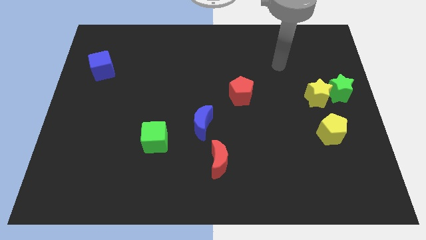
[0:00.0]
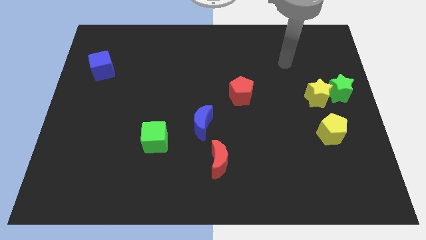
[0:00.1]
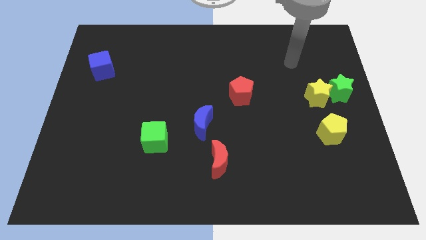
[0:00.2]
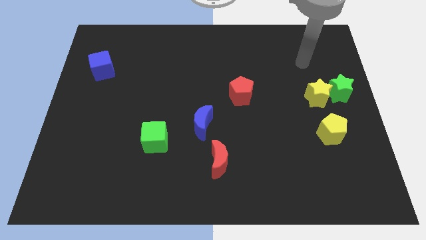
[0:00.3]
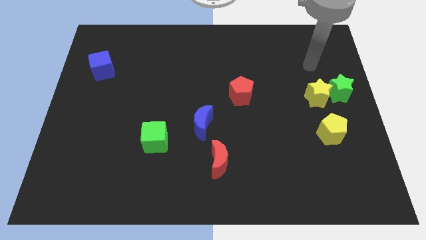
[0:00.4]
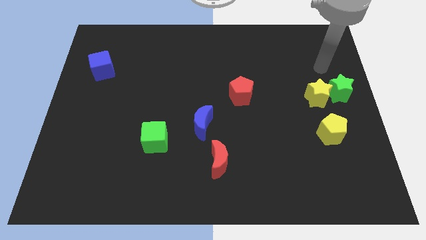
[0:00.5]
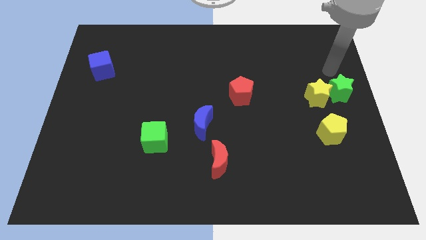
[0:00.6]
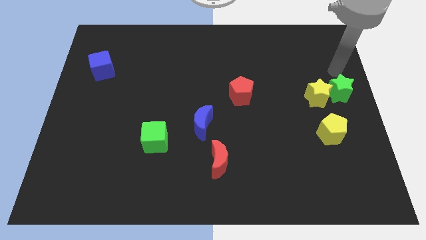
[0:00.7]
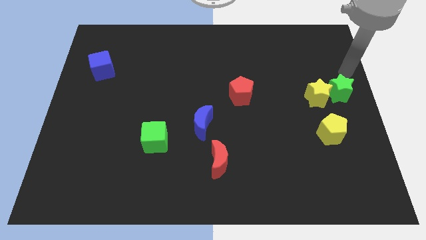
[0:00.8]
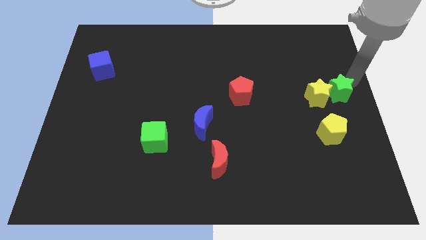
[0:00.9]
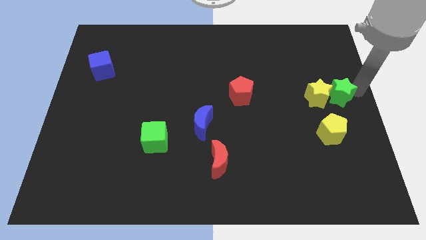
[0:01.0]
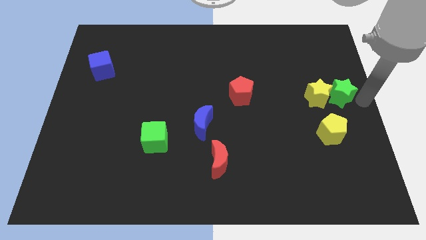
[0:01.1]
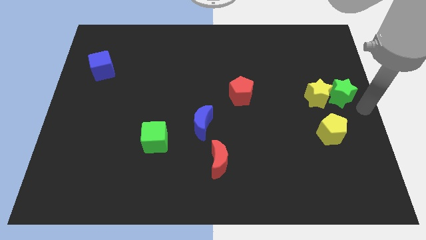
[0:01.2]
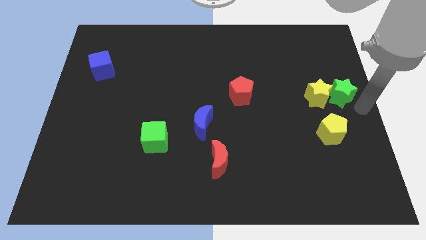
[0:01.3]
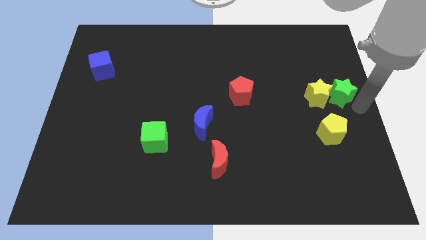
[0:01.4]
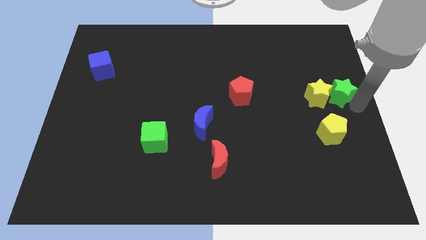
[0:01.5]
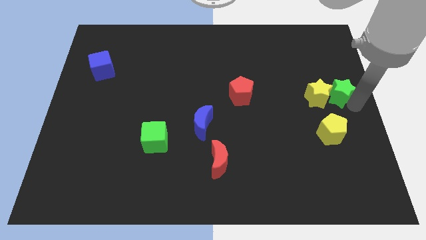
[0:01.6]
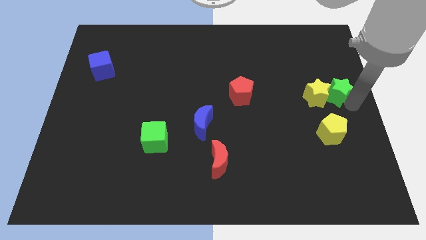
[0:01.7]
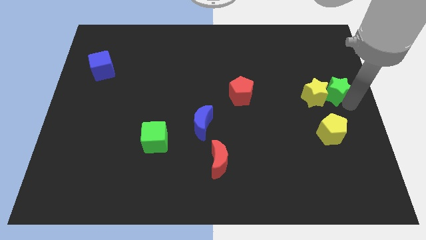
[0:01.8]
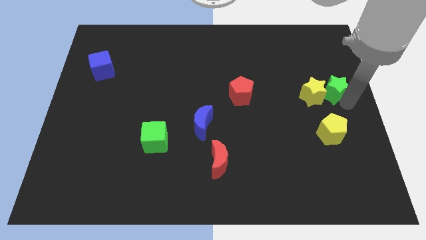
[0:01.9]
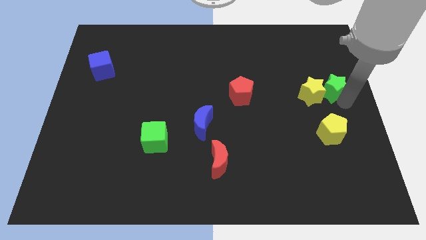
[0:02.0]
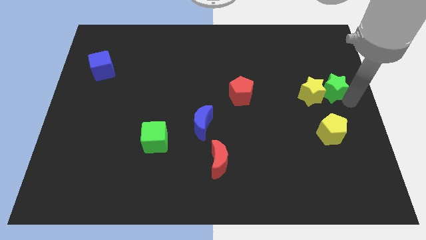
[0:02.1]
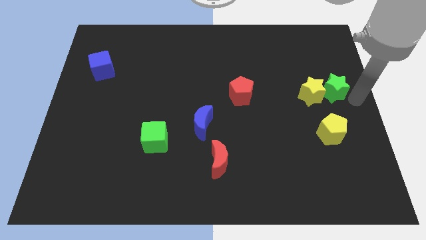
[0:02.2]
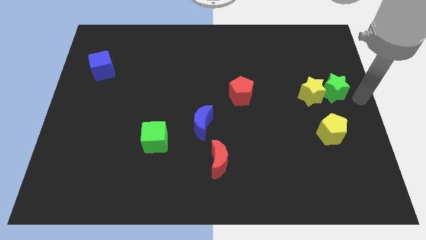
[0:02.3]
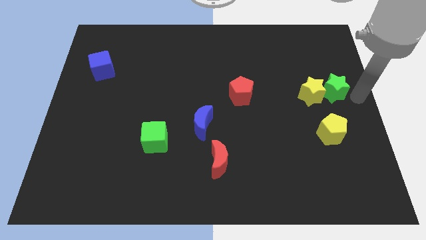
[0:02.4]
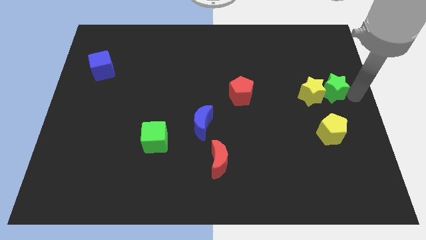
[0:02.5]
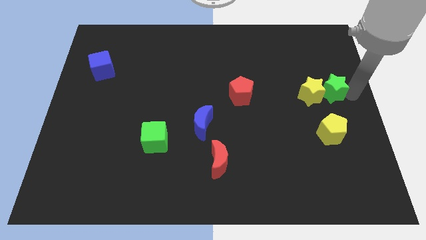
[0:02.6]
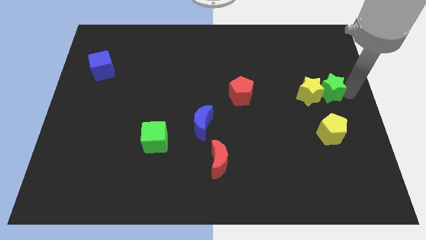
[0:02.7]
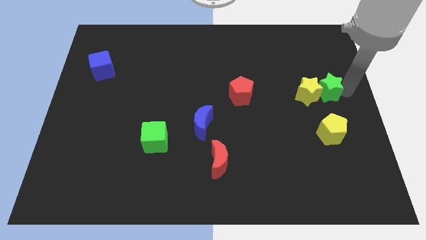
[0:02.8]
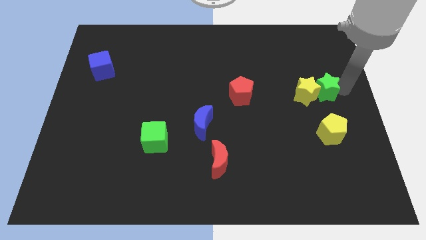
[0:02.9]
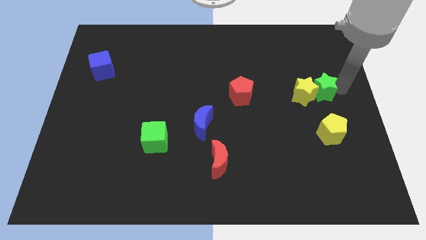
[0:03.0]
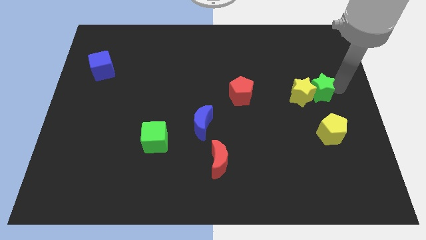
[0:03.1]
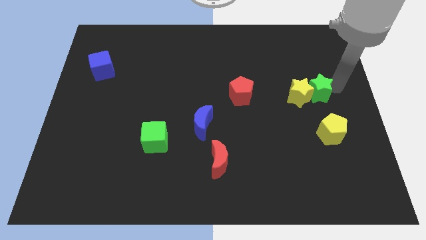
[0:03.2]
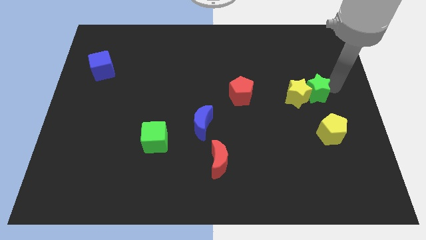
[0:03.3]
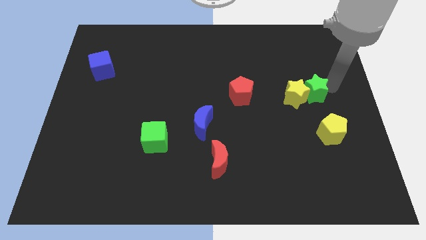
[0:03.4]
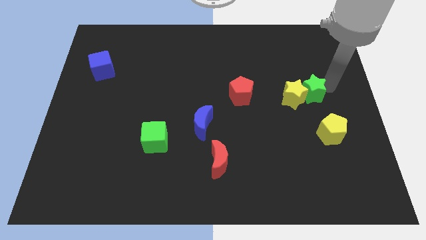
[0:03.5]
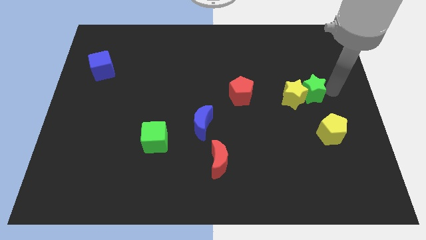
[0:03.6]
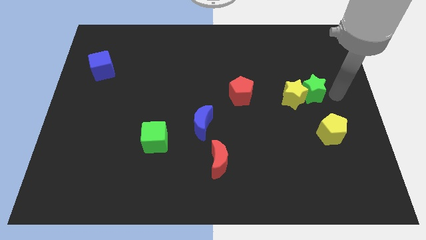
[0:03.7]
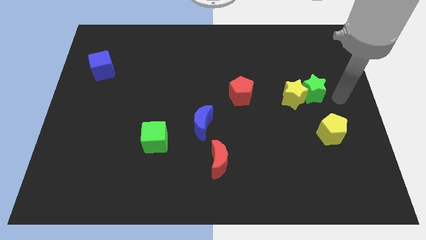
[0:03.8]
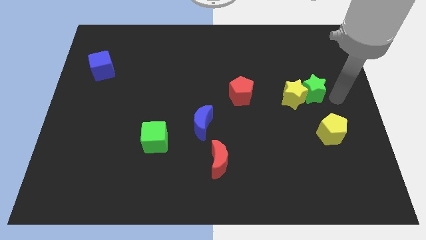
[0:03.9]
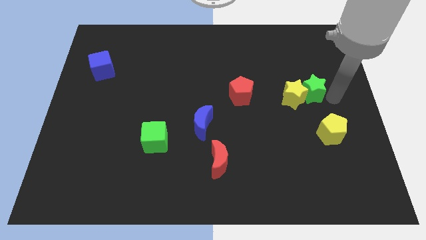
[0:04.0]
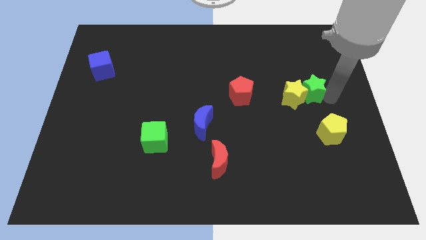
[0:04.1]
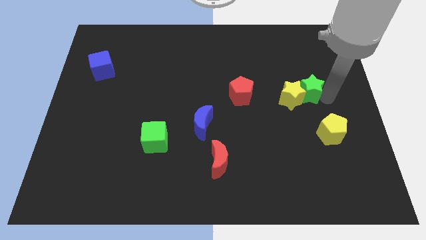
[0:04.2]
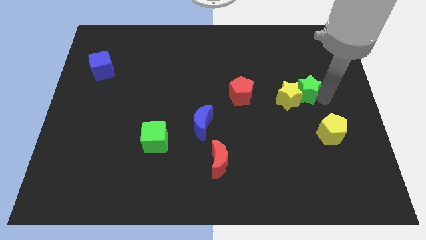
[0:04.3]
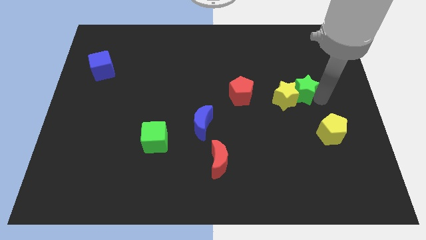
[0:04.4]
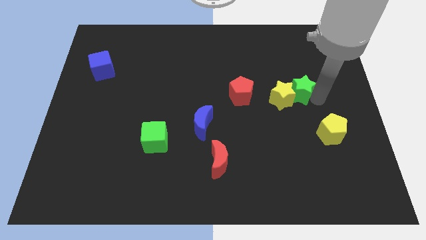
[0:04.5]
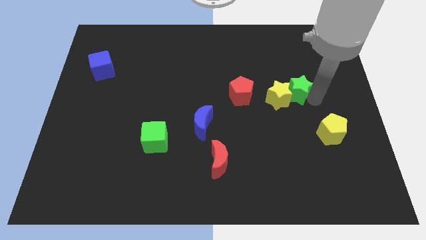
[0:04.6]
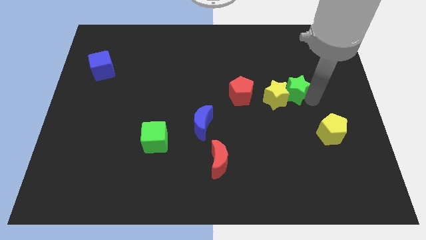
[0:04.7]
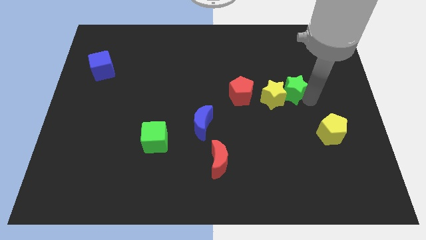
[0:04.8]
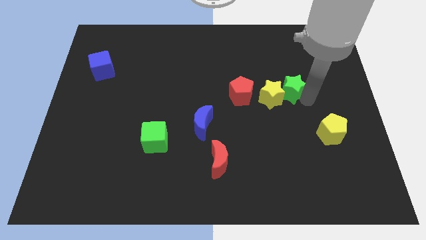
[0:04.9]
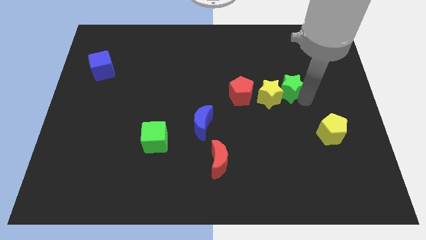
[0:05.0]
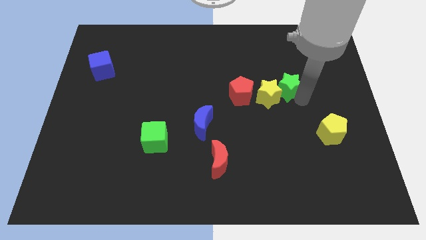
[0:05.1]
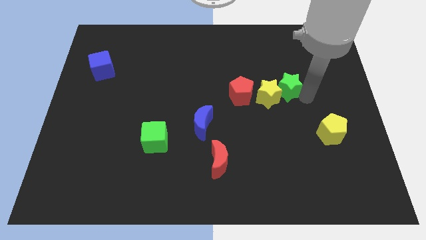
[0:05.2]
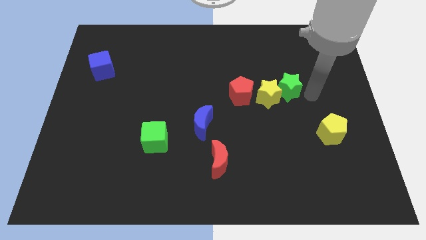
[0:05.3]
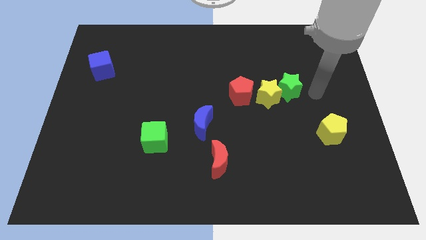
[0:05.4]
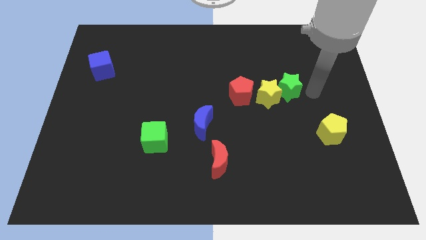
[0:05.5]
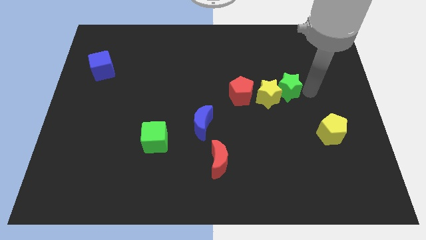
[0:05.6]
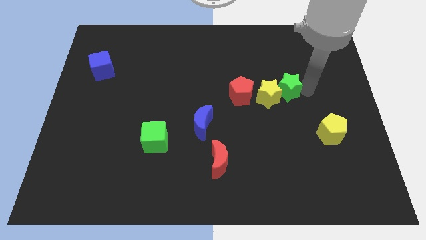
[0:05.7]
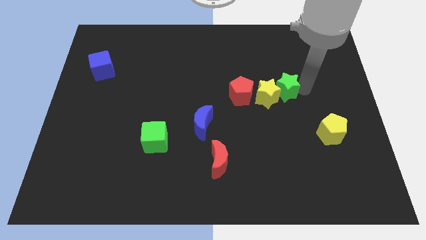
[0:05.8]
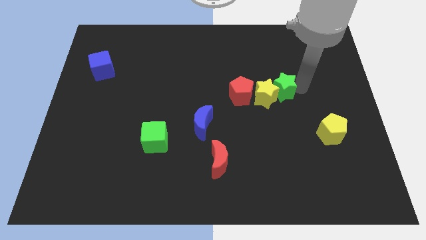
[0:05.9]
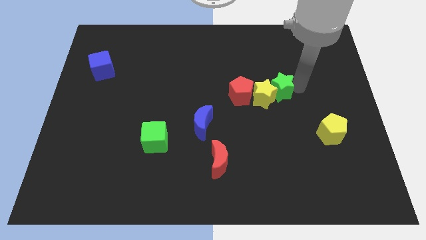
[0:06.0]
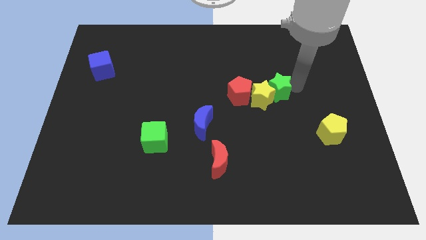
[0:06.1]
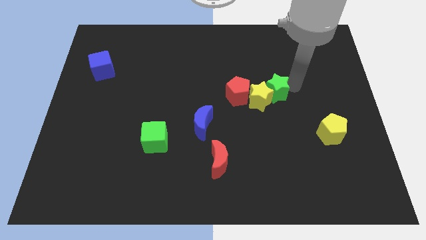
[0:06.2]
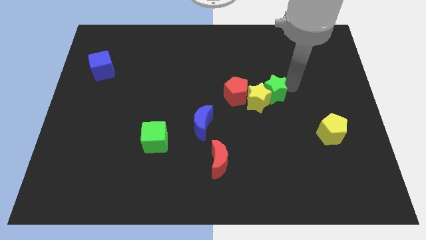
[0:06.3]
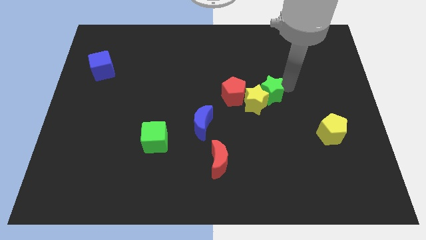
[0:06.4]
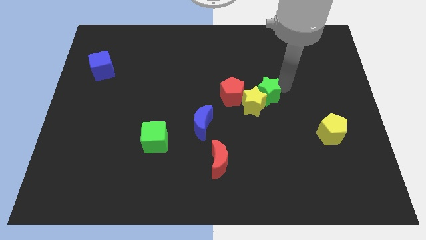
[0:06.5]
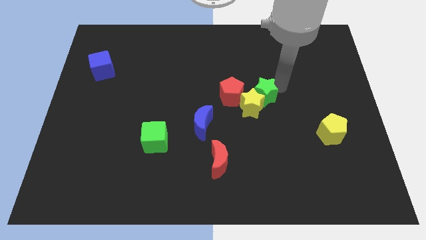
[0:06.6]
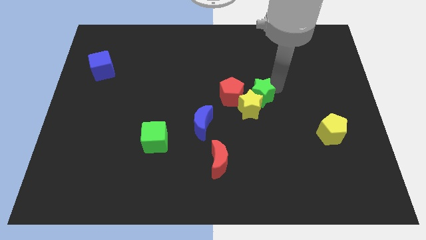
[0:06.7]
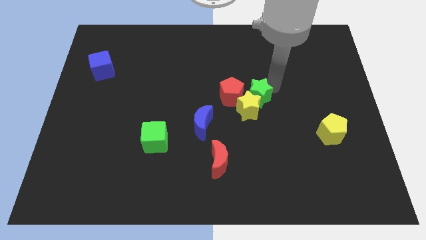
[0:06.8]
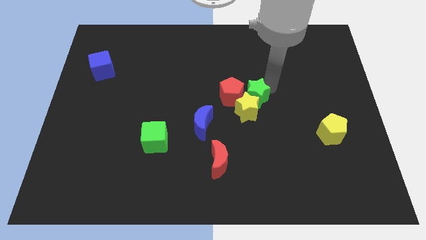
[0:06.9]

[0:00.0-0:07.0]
push the green star towards the red pentagon

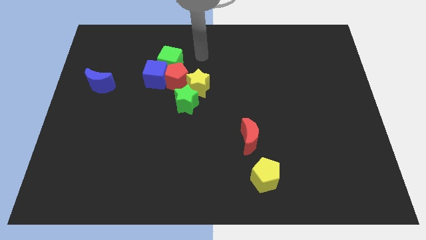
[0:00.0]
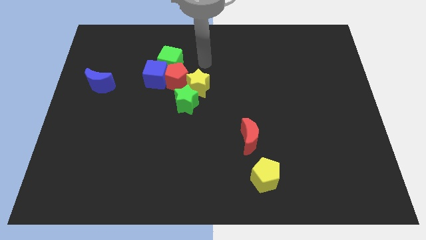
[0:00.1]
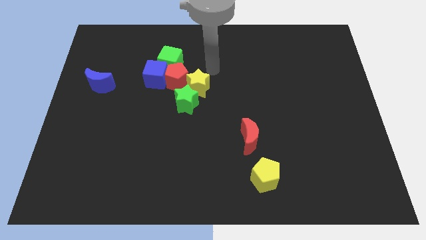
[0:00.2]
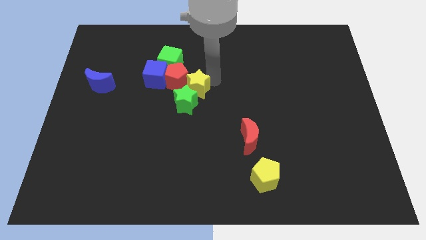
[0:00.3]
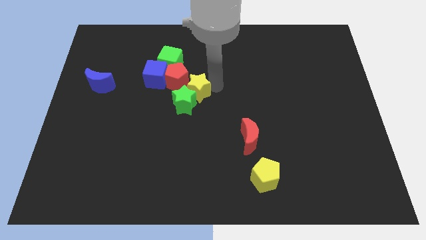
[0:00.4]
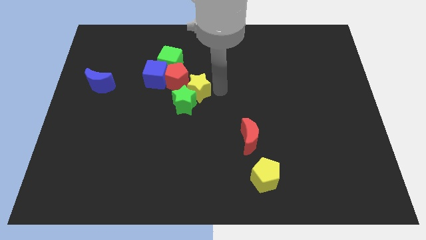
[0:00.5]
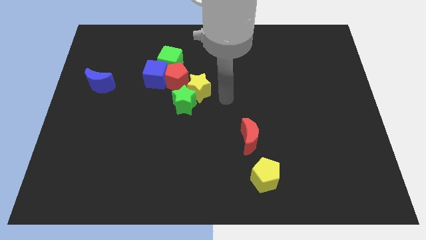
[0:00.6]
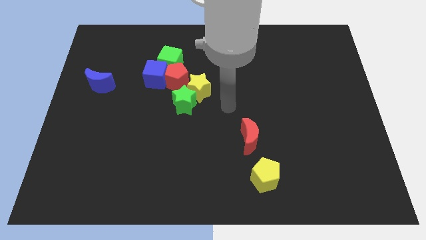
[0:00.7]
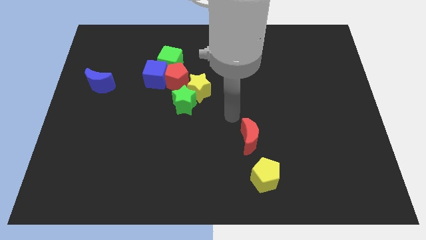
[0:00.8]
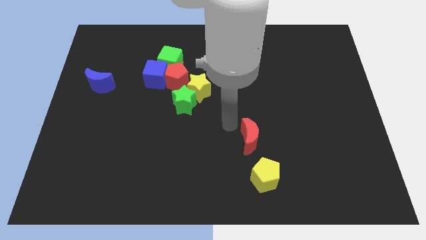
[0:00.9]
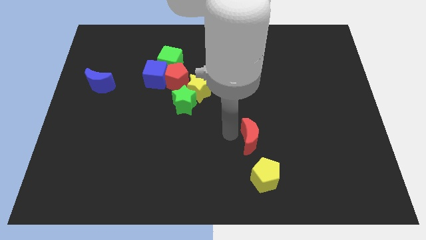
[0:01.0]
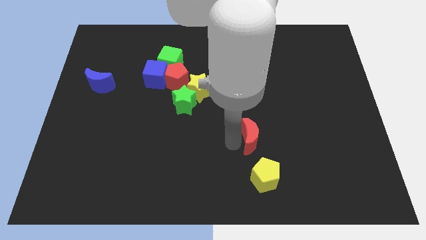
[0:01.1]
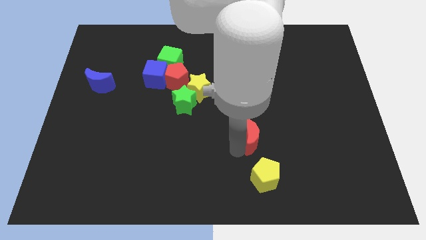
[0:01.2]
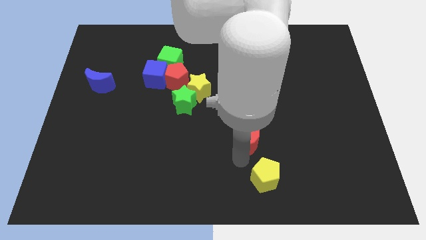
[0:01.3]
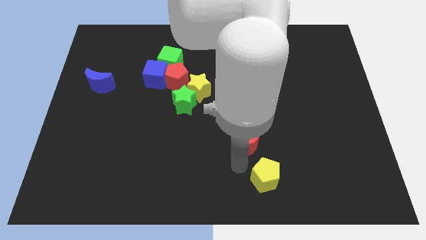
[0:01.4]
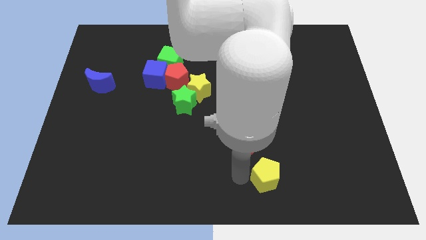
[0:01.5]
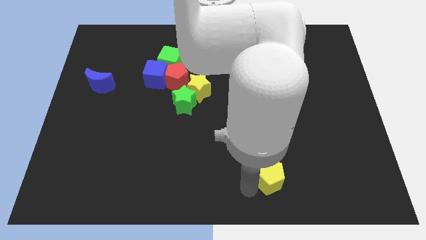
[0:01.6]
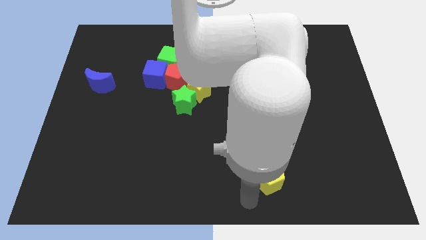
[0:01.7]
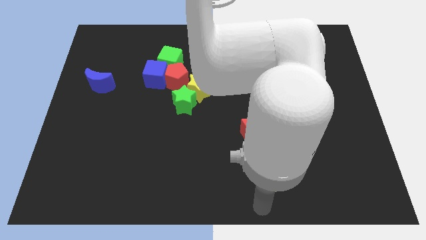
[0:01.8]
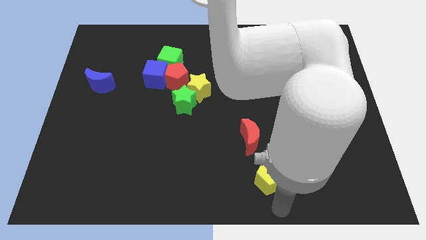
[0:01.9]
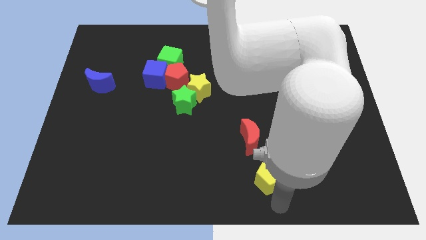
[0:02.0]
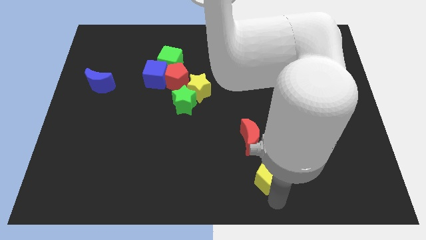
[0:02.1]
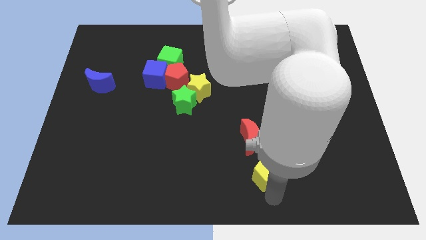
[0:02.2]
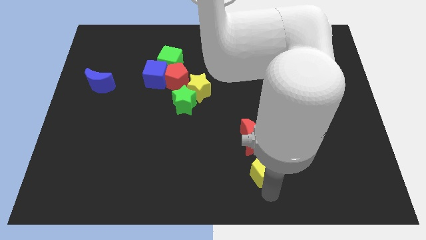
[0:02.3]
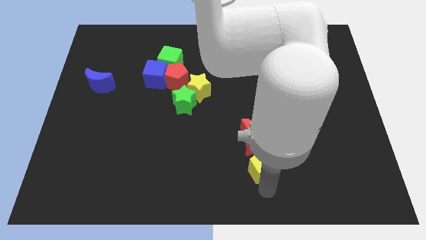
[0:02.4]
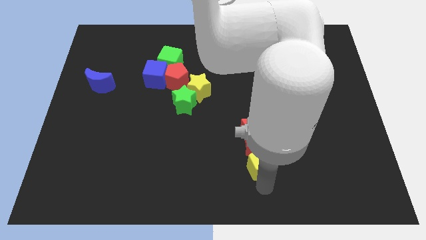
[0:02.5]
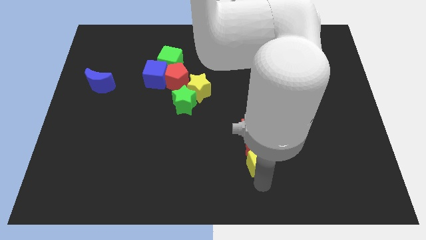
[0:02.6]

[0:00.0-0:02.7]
put the yellow pentagon next to the red moon
